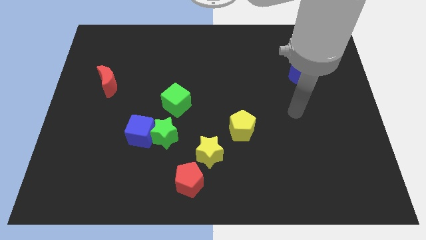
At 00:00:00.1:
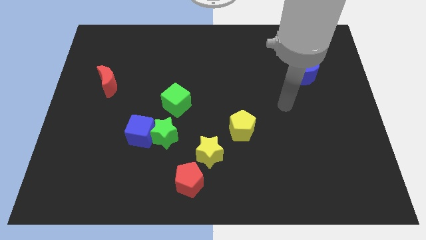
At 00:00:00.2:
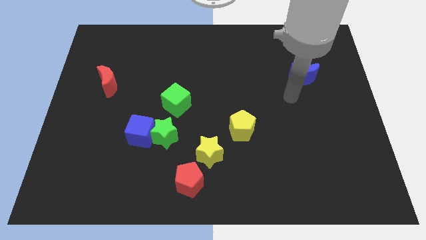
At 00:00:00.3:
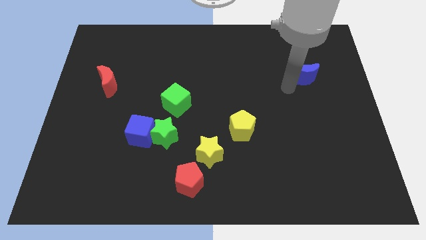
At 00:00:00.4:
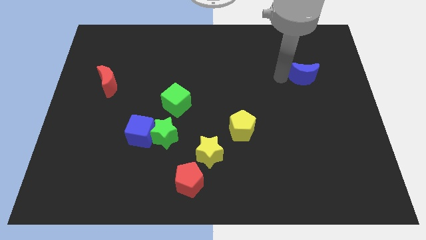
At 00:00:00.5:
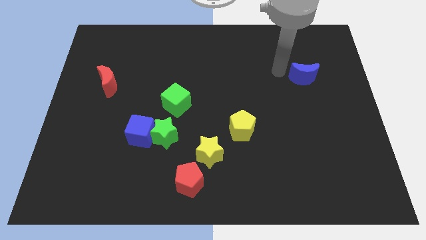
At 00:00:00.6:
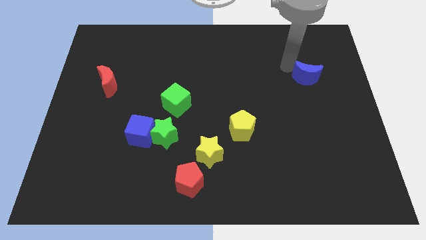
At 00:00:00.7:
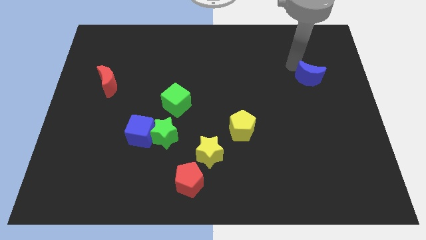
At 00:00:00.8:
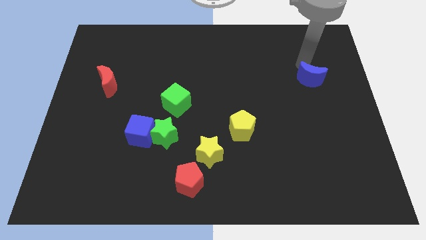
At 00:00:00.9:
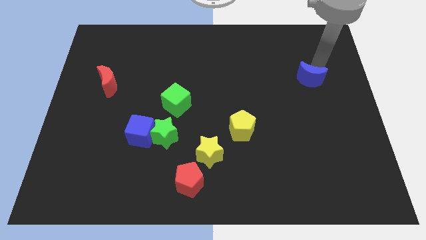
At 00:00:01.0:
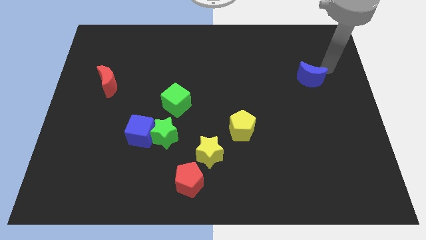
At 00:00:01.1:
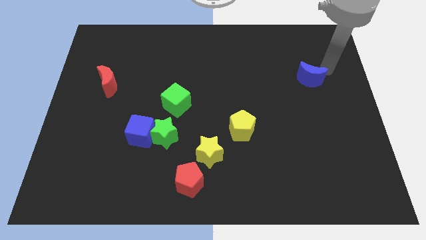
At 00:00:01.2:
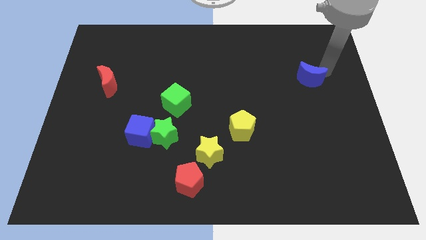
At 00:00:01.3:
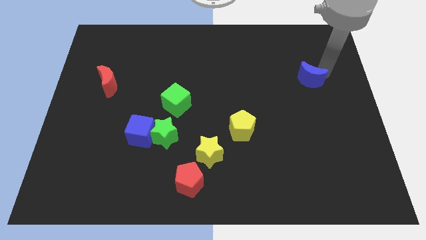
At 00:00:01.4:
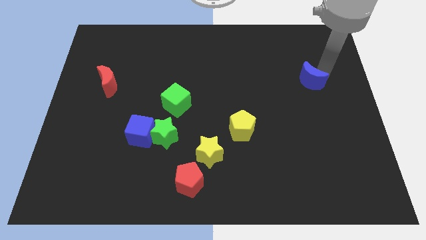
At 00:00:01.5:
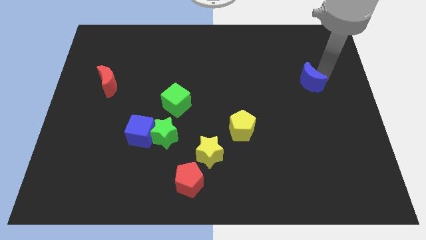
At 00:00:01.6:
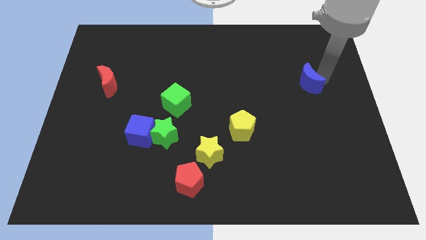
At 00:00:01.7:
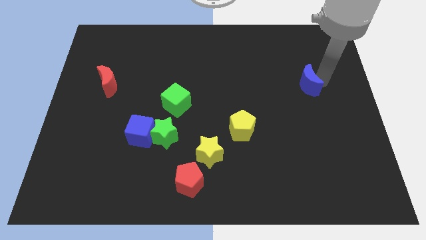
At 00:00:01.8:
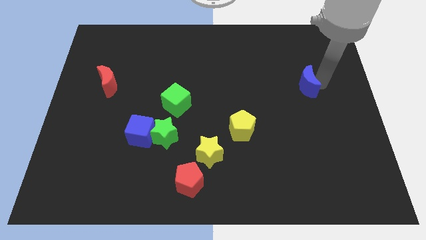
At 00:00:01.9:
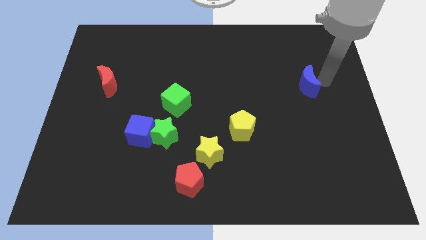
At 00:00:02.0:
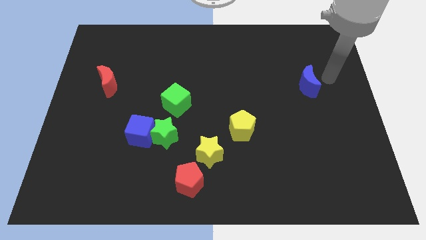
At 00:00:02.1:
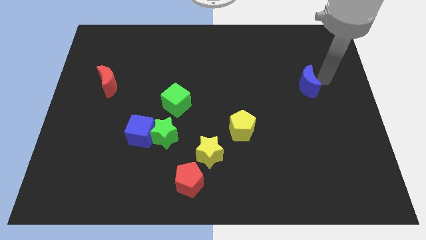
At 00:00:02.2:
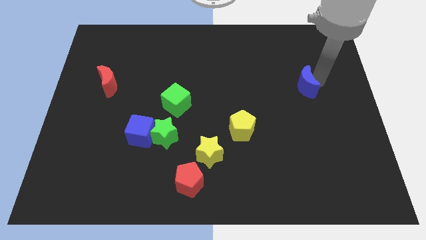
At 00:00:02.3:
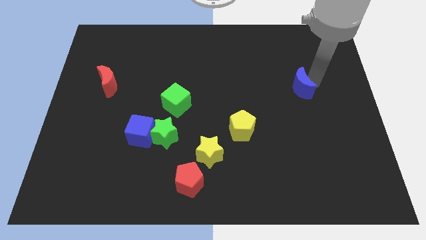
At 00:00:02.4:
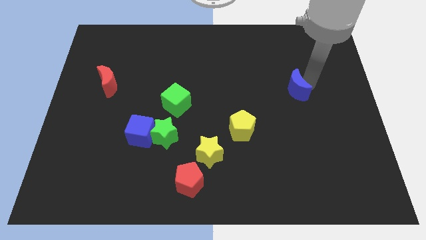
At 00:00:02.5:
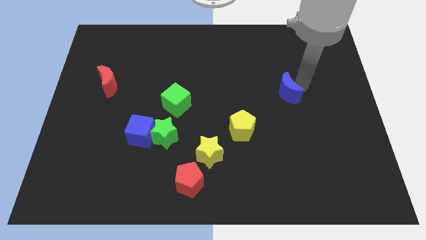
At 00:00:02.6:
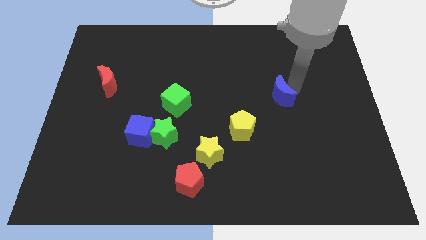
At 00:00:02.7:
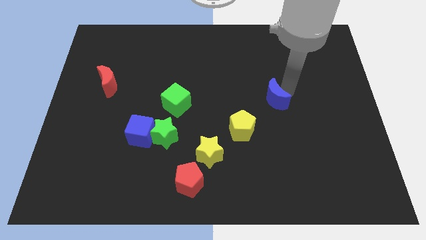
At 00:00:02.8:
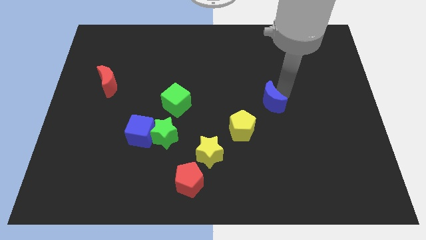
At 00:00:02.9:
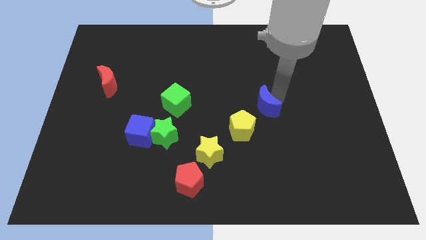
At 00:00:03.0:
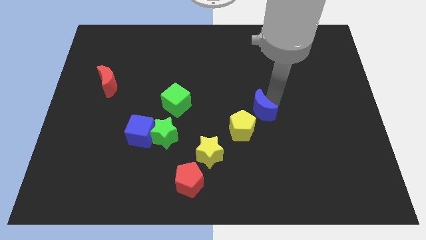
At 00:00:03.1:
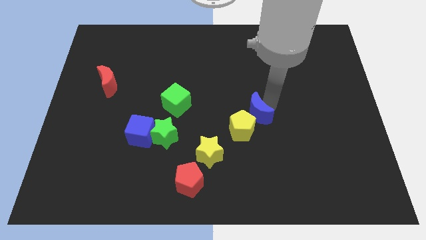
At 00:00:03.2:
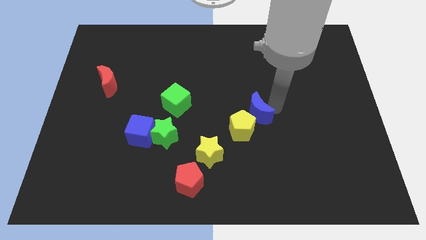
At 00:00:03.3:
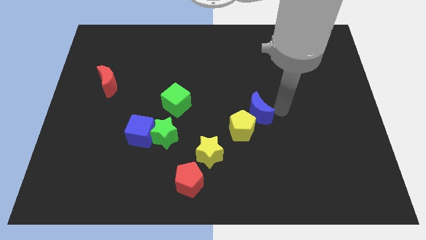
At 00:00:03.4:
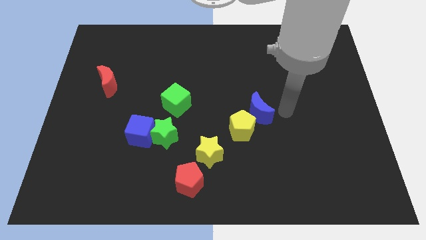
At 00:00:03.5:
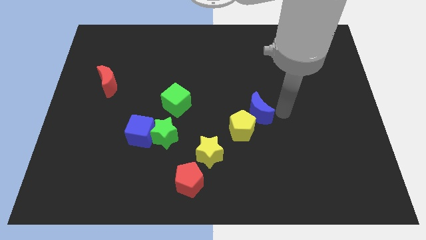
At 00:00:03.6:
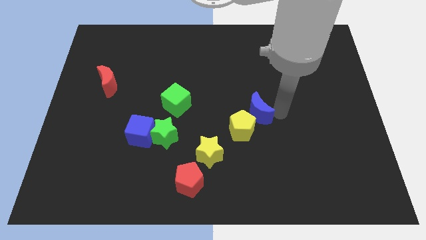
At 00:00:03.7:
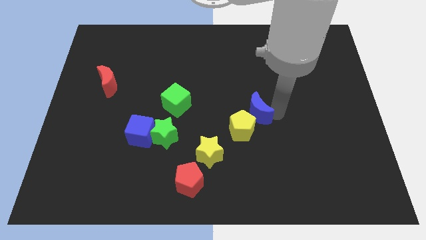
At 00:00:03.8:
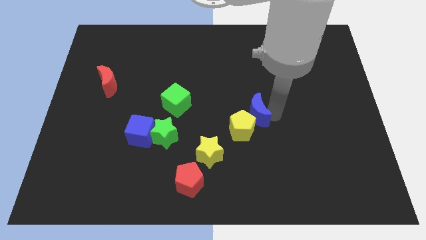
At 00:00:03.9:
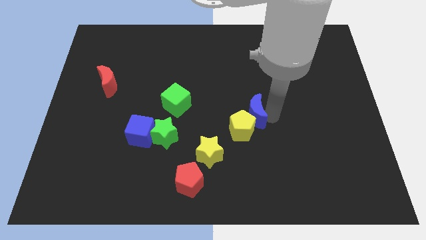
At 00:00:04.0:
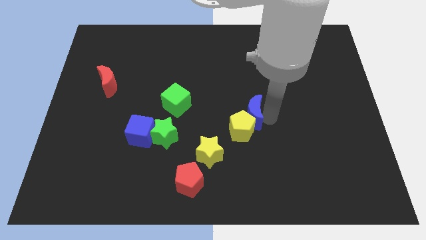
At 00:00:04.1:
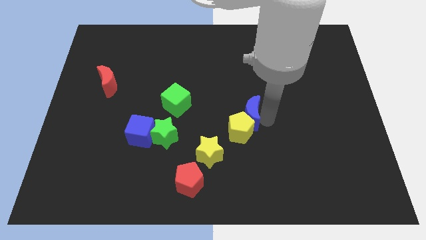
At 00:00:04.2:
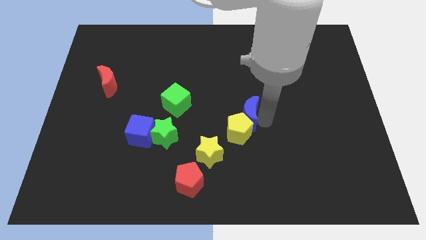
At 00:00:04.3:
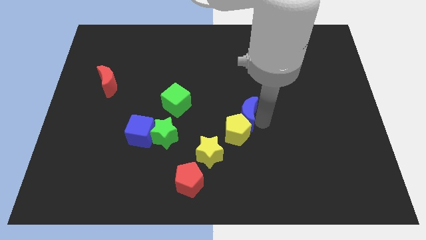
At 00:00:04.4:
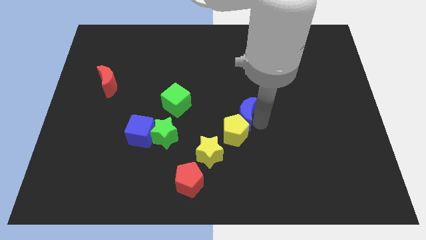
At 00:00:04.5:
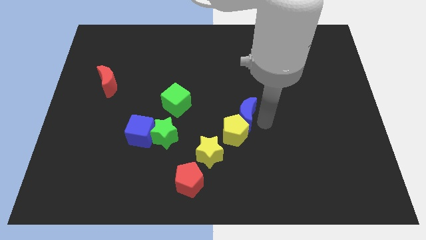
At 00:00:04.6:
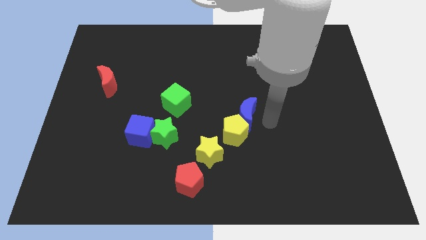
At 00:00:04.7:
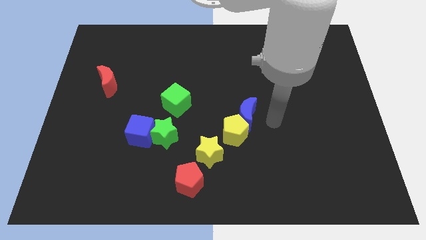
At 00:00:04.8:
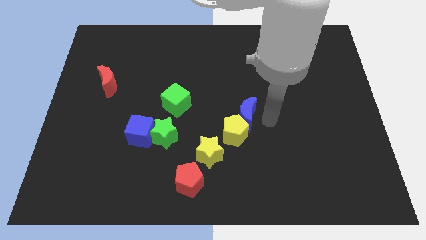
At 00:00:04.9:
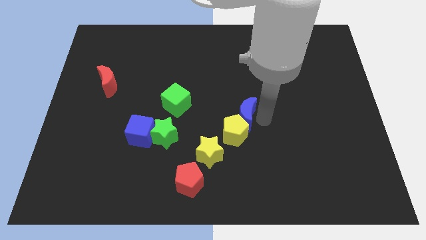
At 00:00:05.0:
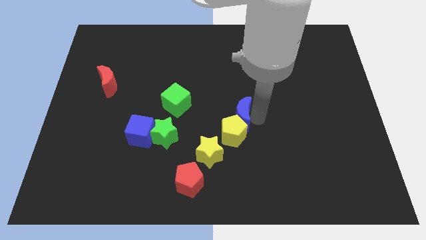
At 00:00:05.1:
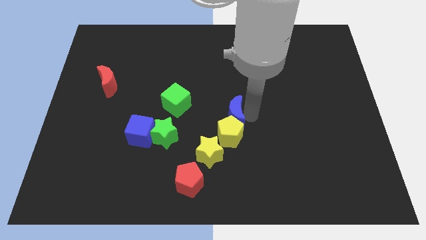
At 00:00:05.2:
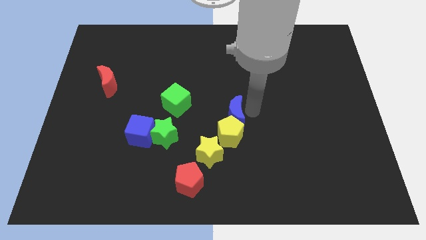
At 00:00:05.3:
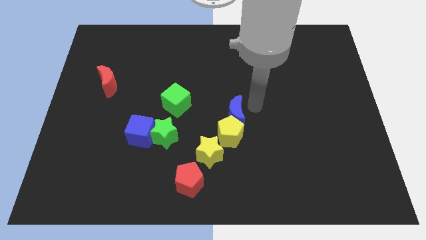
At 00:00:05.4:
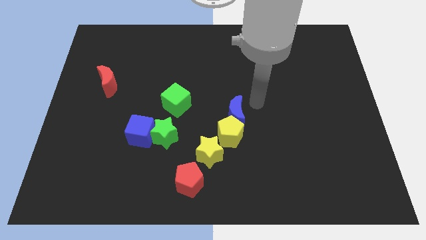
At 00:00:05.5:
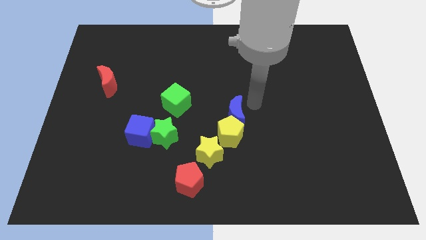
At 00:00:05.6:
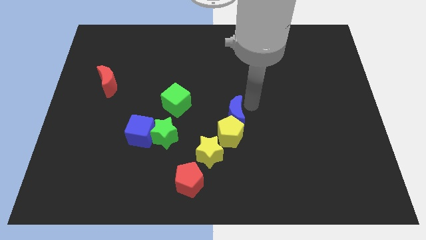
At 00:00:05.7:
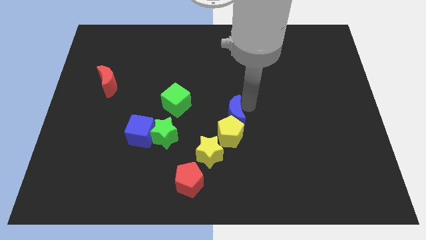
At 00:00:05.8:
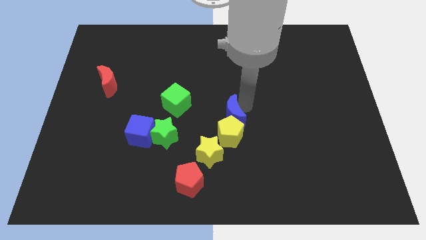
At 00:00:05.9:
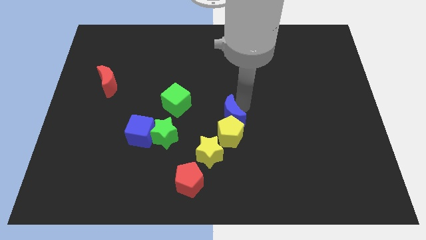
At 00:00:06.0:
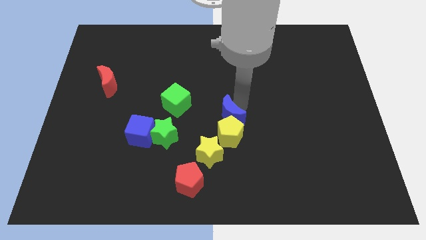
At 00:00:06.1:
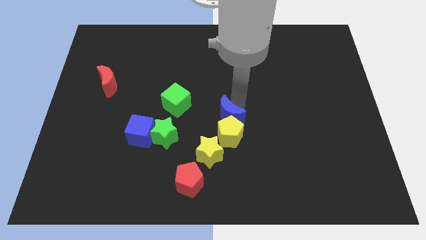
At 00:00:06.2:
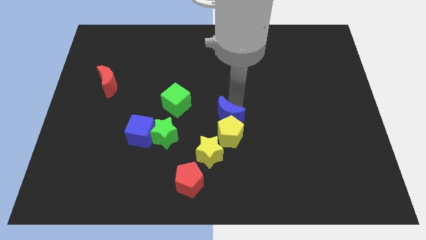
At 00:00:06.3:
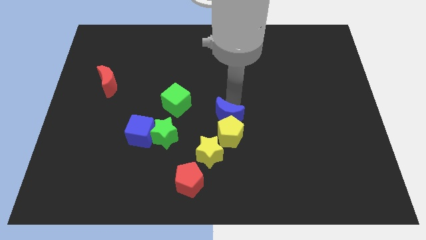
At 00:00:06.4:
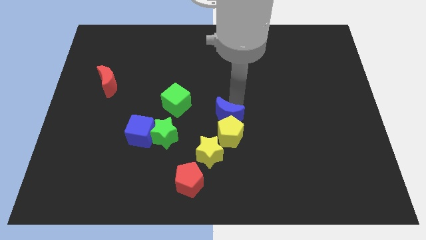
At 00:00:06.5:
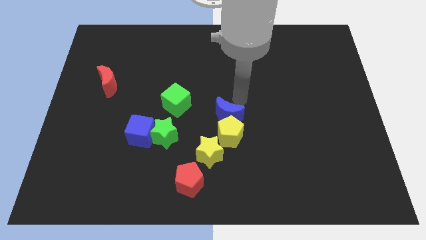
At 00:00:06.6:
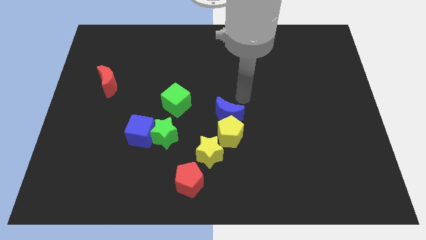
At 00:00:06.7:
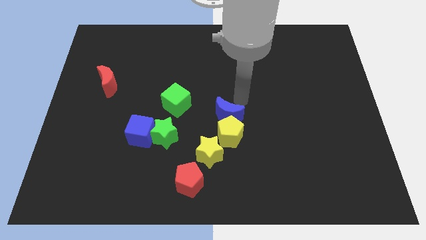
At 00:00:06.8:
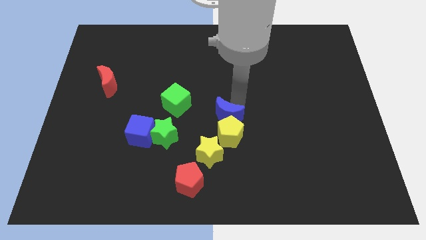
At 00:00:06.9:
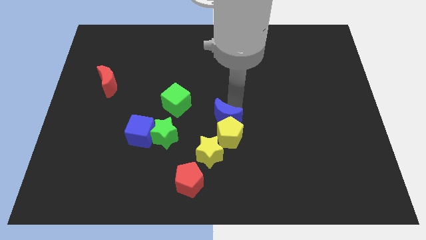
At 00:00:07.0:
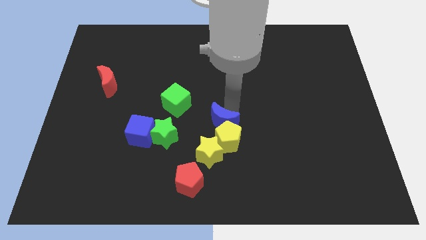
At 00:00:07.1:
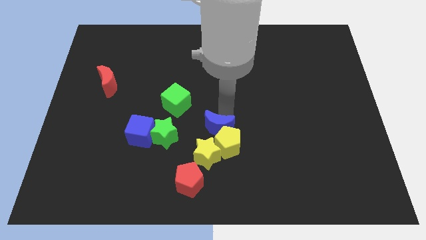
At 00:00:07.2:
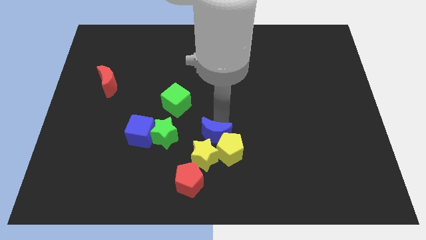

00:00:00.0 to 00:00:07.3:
put the blue moon next to the yellow star
